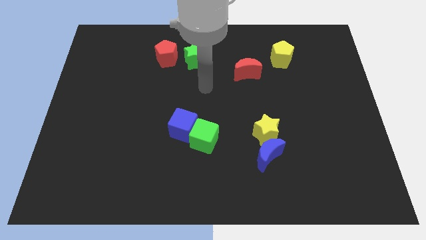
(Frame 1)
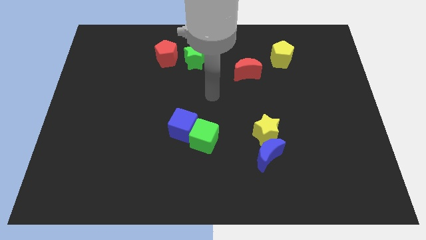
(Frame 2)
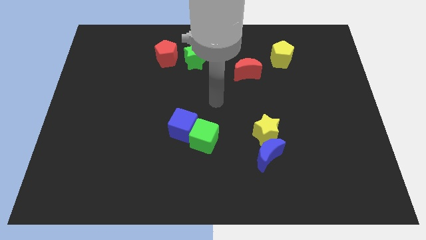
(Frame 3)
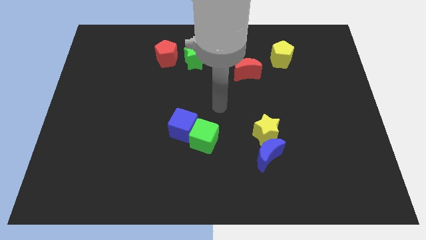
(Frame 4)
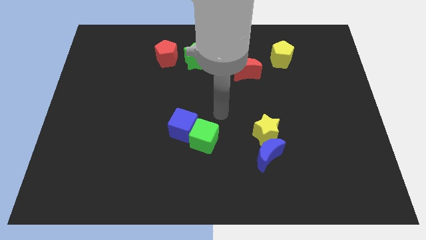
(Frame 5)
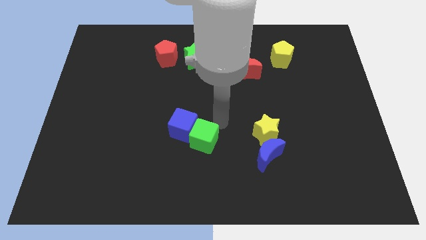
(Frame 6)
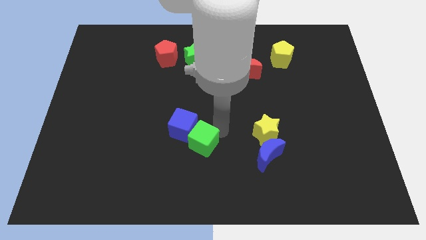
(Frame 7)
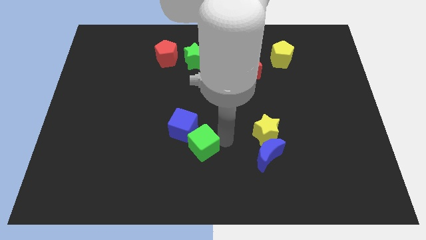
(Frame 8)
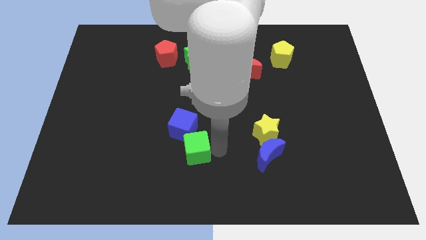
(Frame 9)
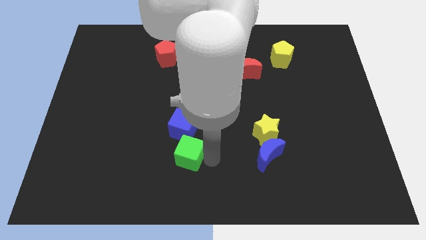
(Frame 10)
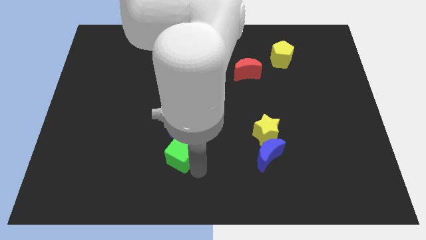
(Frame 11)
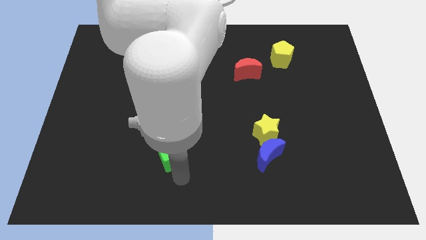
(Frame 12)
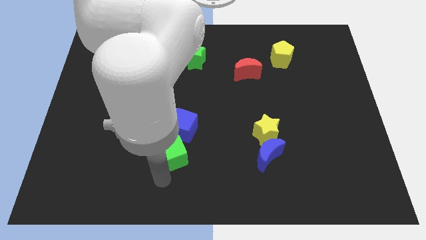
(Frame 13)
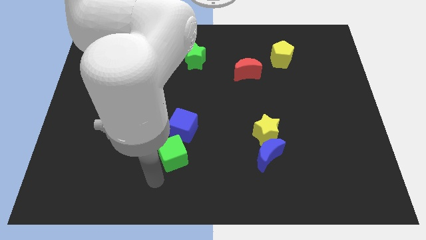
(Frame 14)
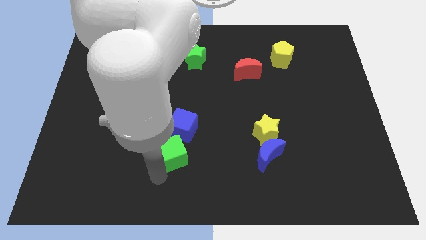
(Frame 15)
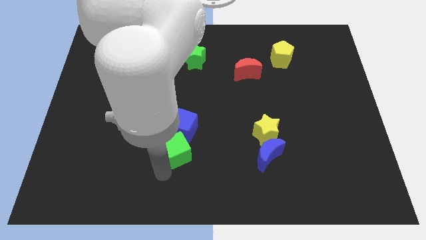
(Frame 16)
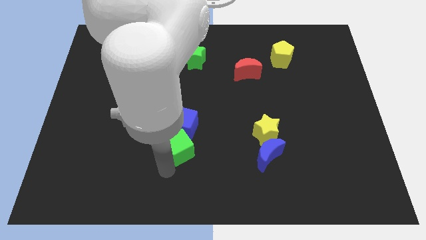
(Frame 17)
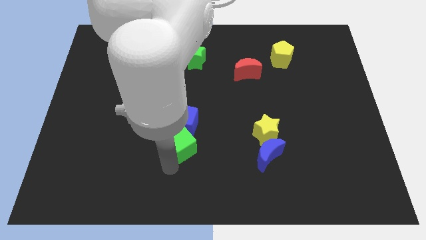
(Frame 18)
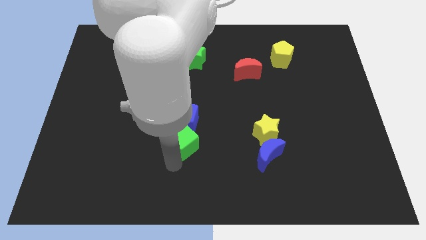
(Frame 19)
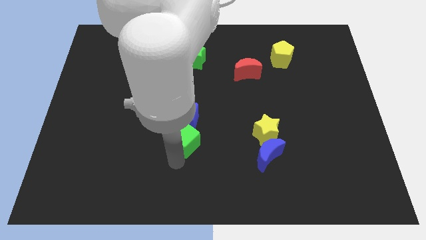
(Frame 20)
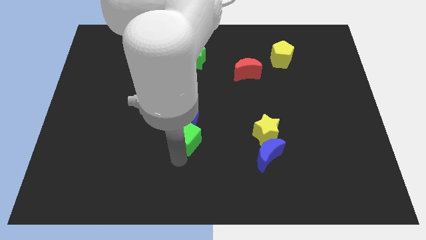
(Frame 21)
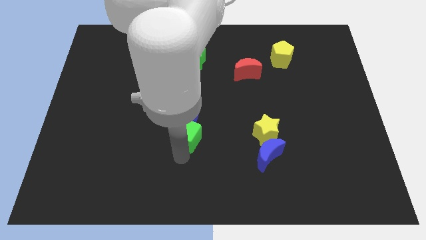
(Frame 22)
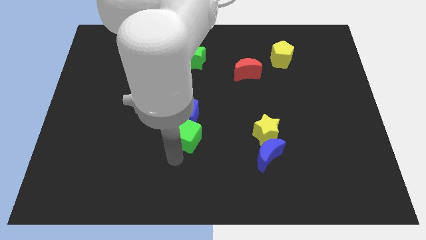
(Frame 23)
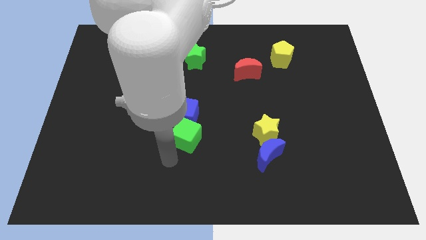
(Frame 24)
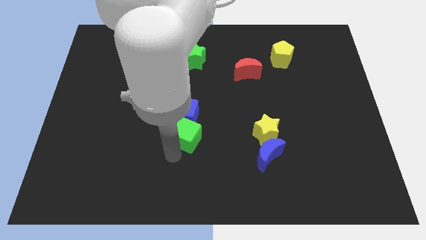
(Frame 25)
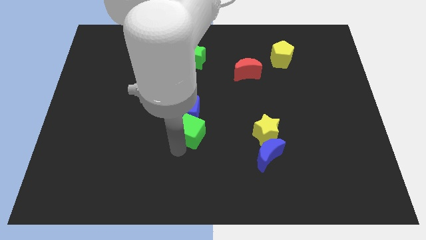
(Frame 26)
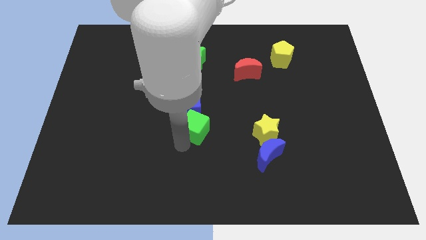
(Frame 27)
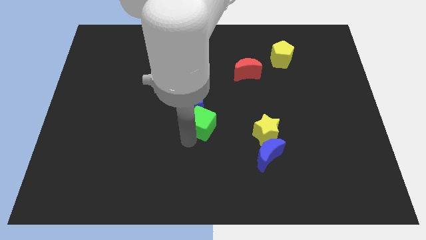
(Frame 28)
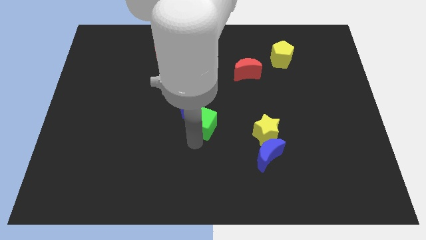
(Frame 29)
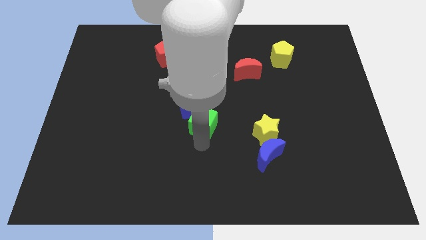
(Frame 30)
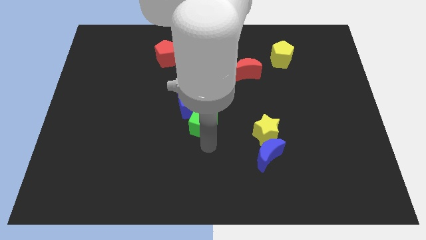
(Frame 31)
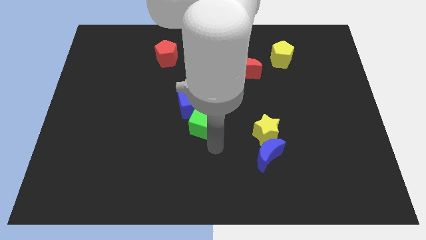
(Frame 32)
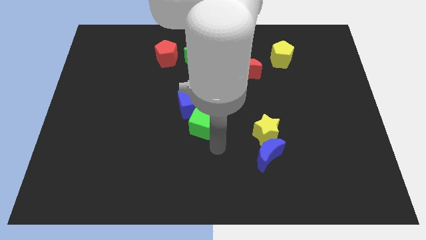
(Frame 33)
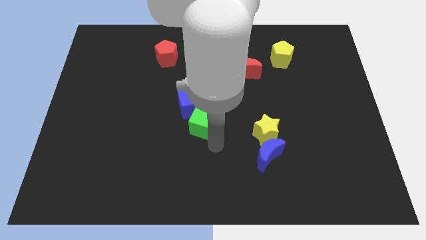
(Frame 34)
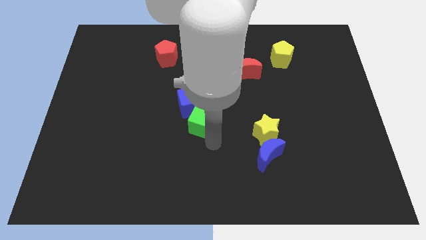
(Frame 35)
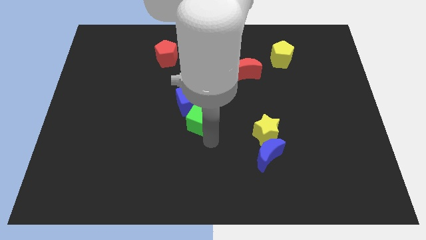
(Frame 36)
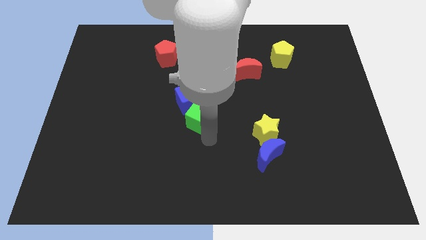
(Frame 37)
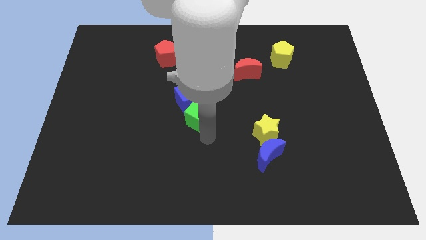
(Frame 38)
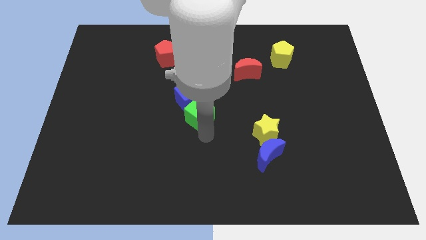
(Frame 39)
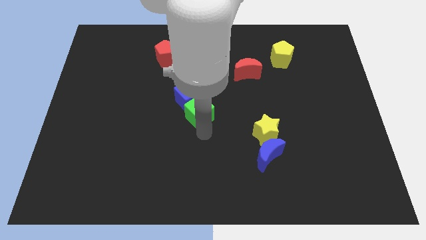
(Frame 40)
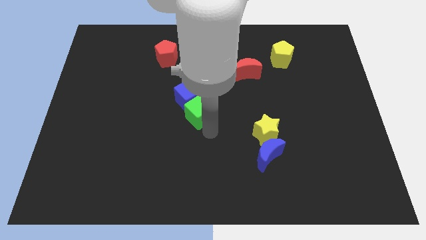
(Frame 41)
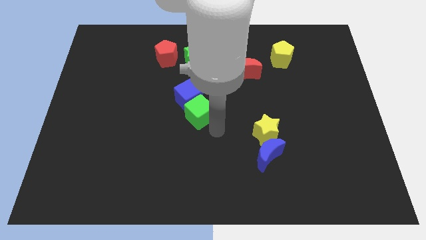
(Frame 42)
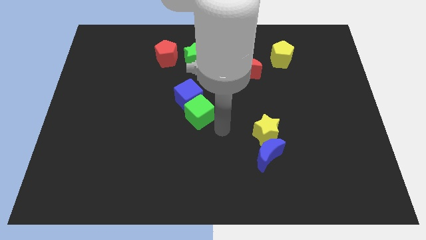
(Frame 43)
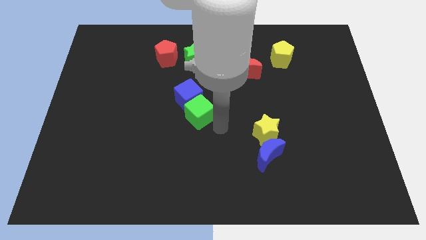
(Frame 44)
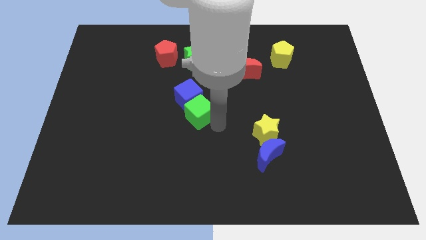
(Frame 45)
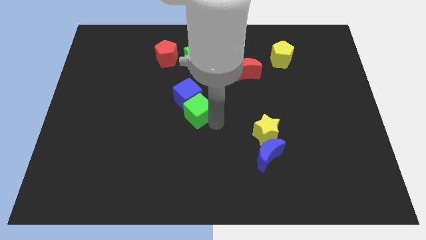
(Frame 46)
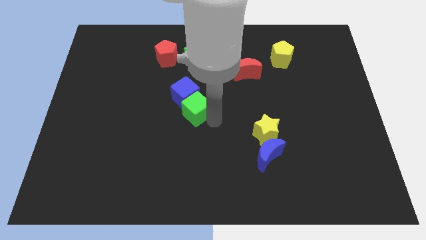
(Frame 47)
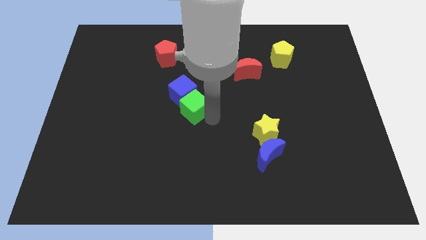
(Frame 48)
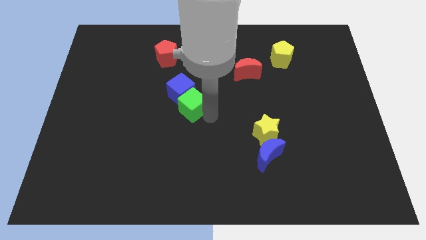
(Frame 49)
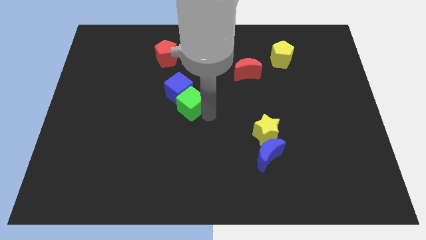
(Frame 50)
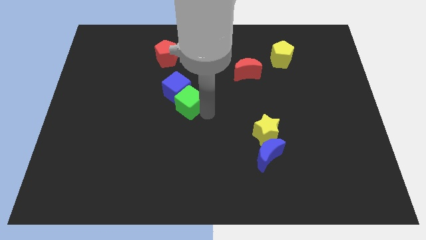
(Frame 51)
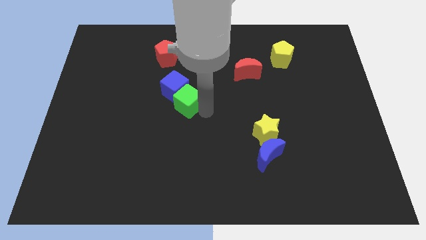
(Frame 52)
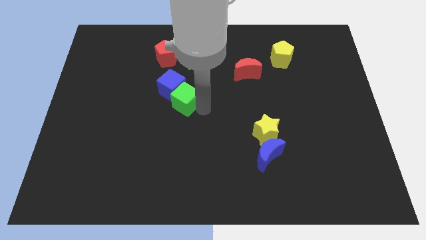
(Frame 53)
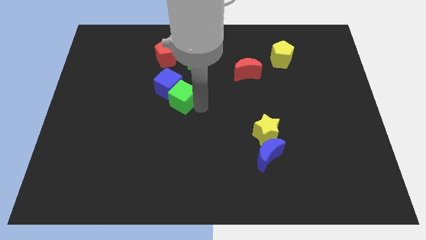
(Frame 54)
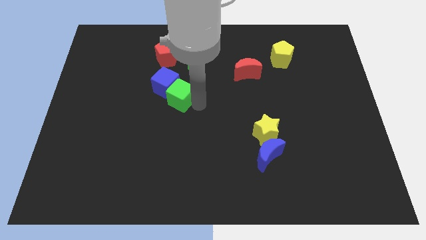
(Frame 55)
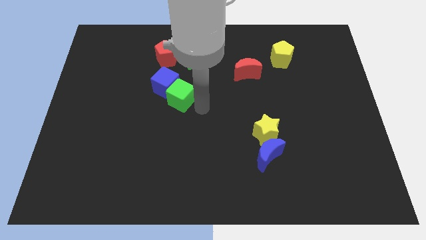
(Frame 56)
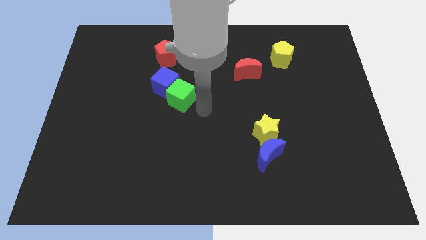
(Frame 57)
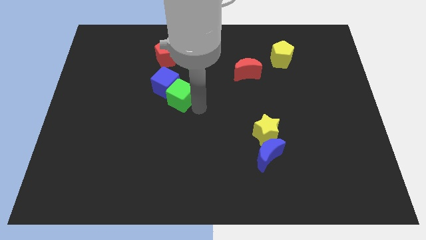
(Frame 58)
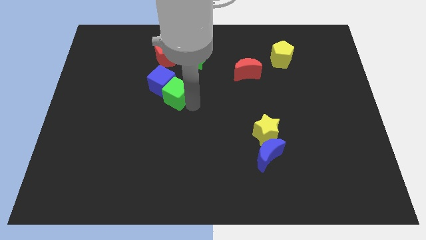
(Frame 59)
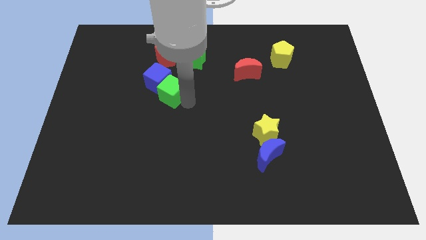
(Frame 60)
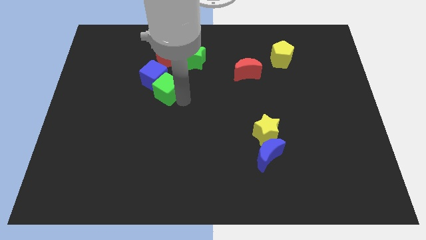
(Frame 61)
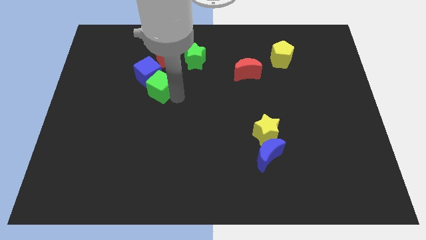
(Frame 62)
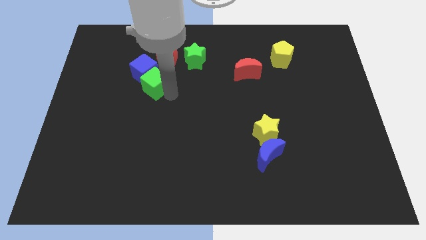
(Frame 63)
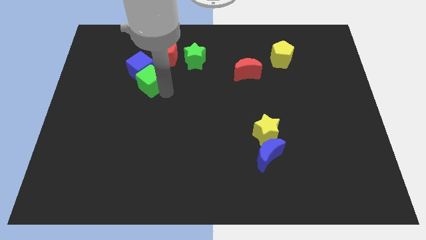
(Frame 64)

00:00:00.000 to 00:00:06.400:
move the green cube up and to the left diagonally

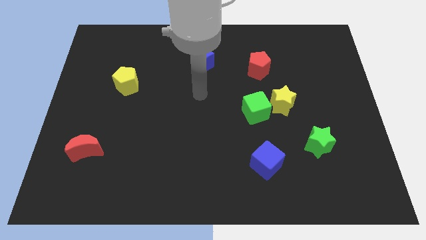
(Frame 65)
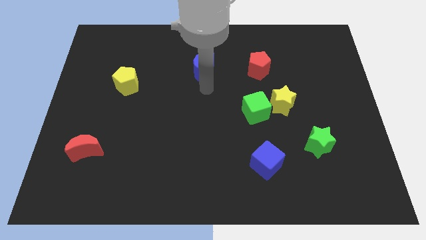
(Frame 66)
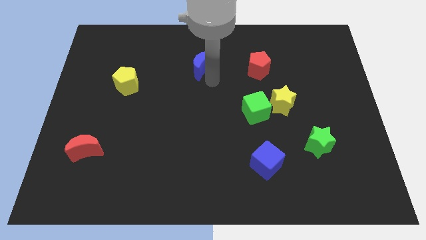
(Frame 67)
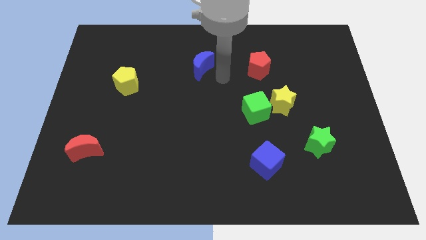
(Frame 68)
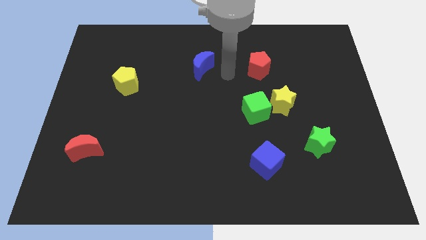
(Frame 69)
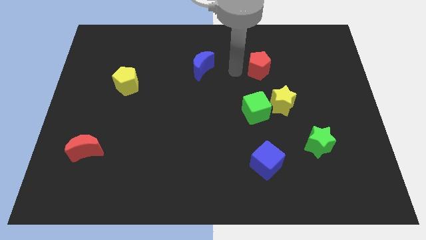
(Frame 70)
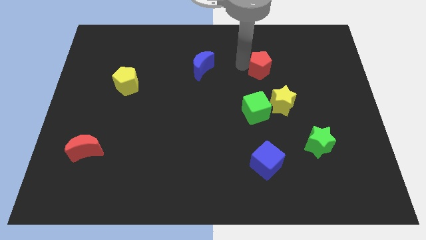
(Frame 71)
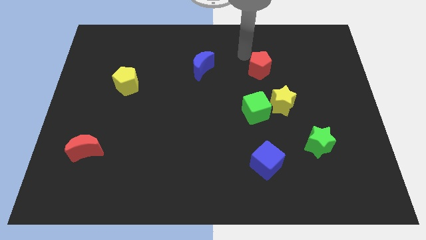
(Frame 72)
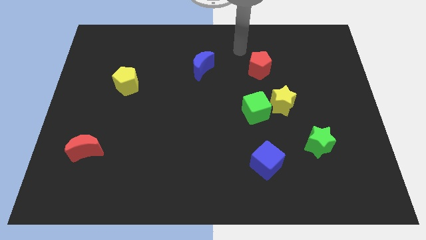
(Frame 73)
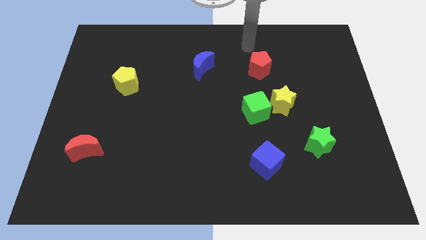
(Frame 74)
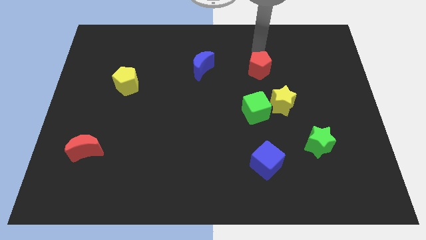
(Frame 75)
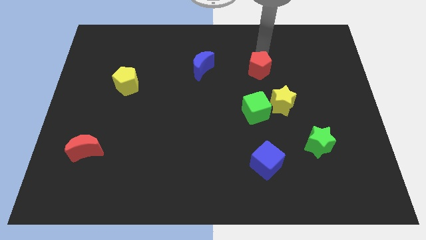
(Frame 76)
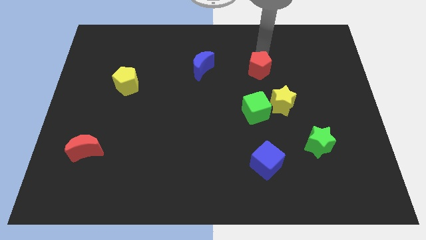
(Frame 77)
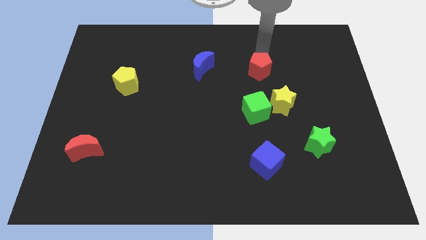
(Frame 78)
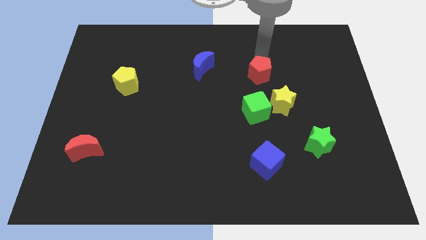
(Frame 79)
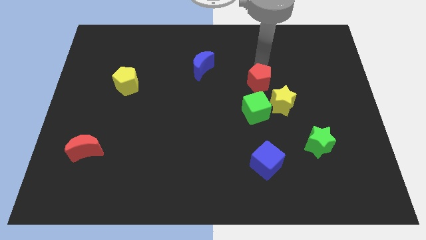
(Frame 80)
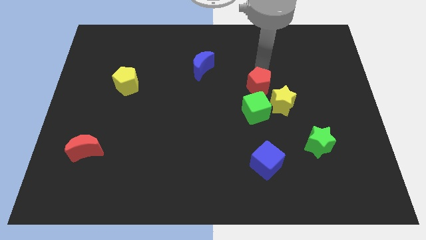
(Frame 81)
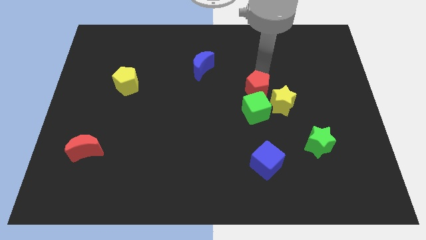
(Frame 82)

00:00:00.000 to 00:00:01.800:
slightly move the red pentagon down

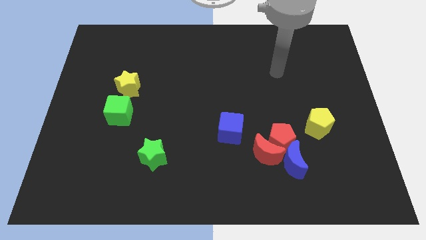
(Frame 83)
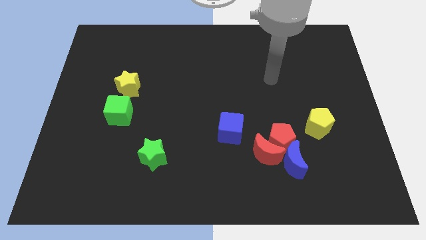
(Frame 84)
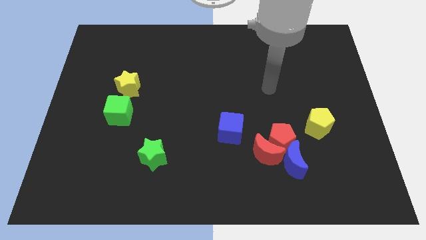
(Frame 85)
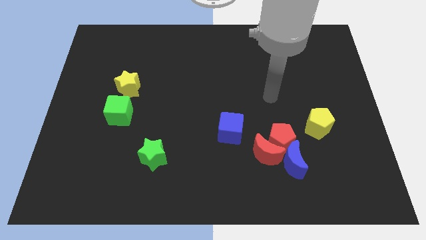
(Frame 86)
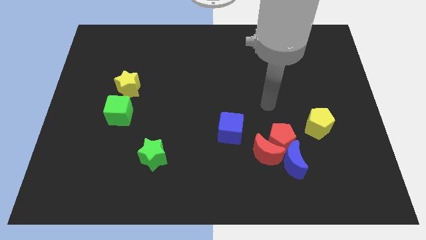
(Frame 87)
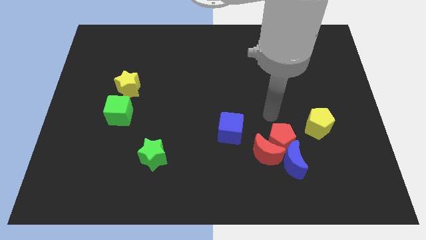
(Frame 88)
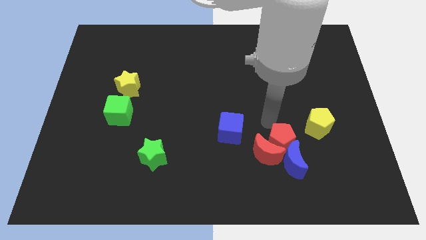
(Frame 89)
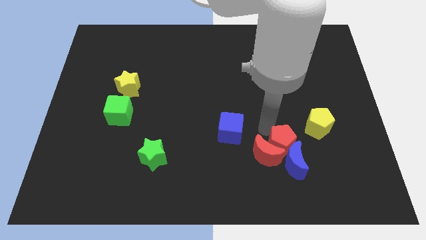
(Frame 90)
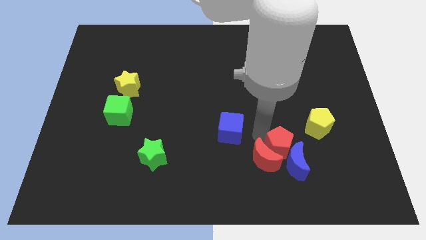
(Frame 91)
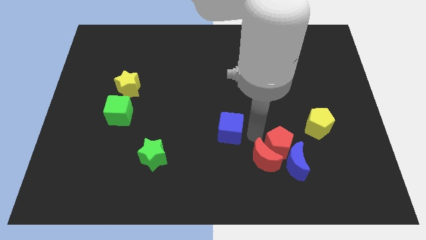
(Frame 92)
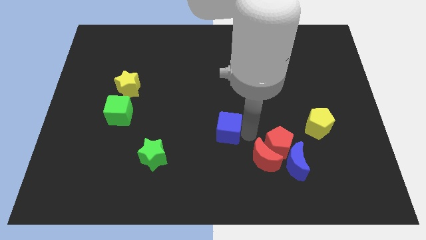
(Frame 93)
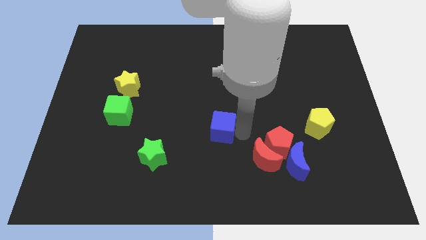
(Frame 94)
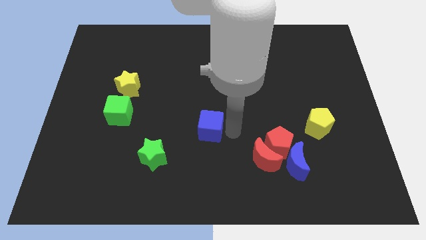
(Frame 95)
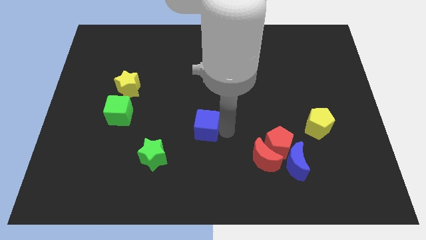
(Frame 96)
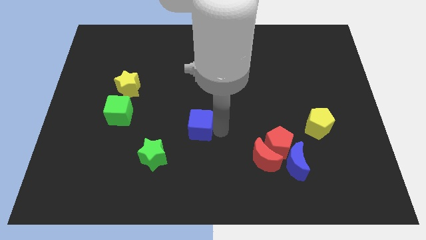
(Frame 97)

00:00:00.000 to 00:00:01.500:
slightly move the blue cube to the left
